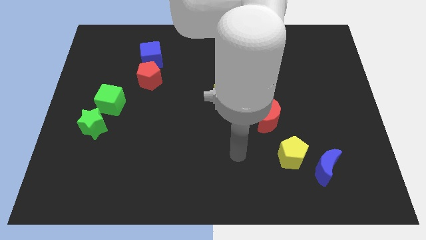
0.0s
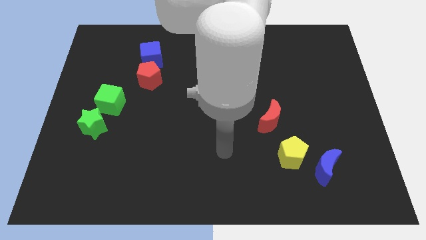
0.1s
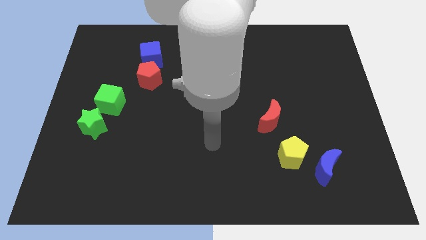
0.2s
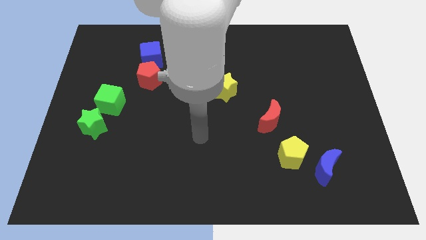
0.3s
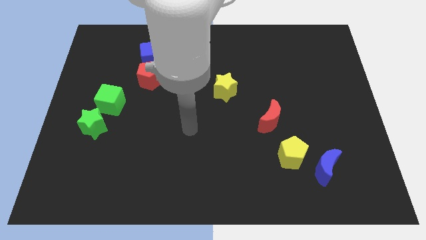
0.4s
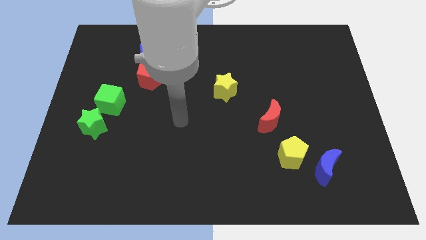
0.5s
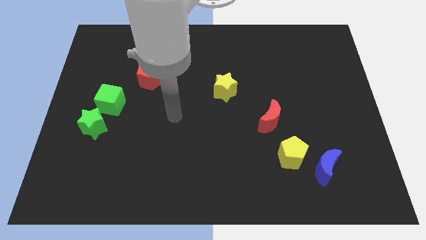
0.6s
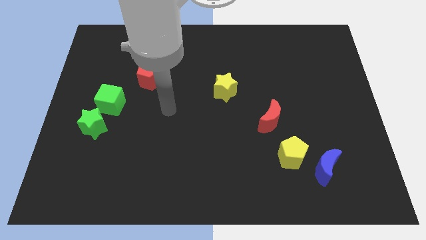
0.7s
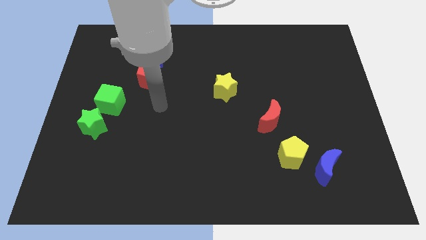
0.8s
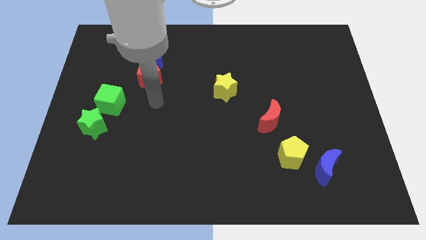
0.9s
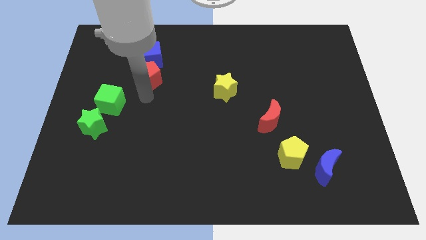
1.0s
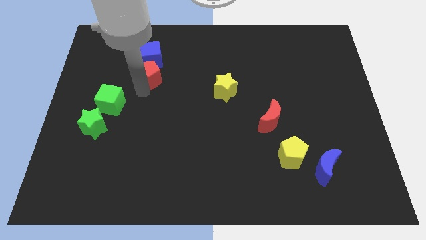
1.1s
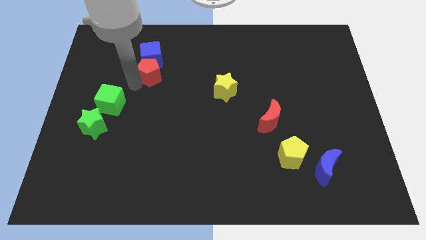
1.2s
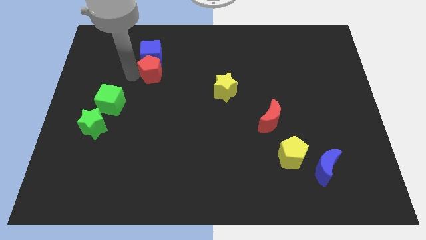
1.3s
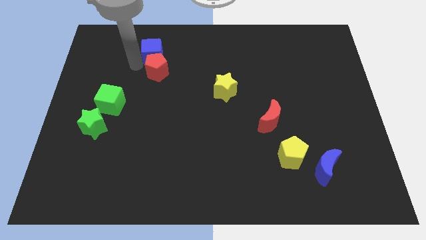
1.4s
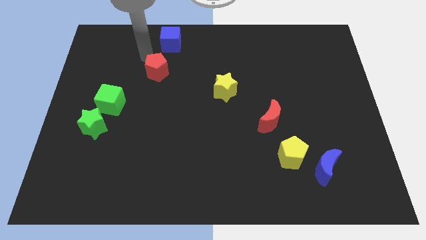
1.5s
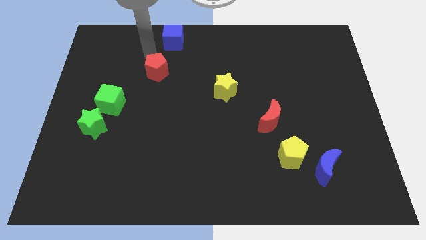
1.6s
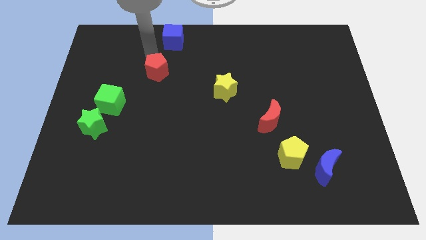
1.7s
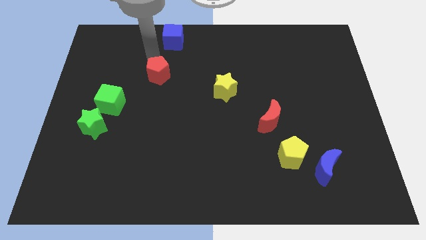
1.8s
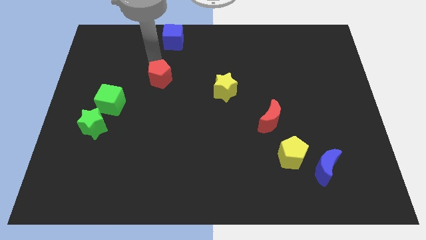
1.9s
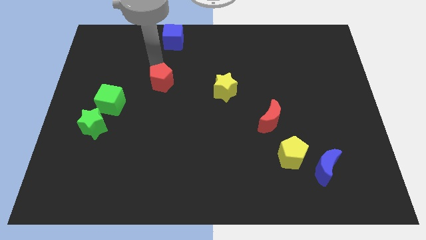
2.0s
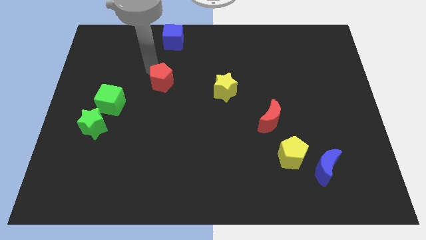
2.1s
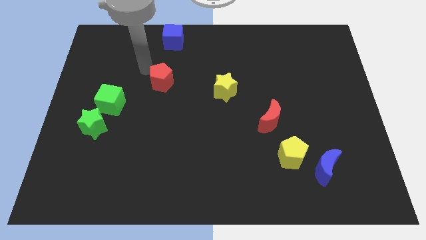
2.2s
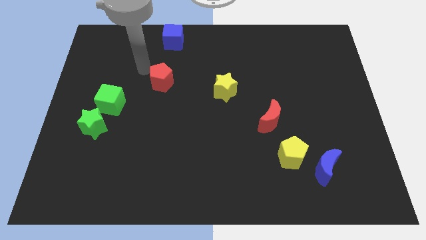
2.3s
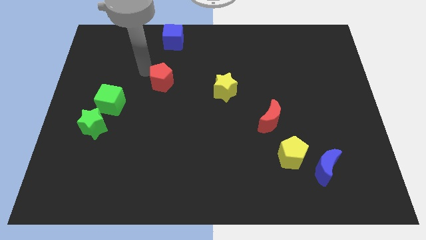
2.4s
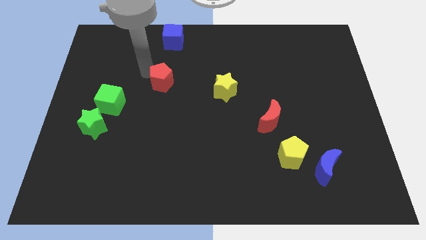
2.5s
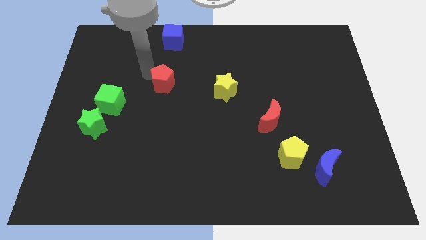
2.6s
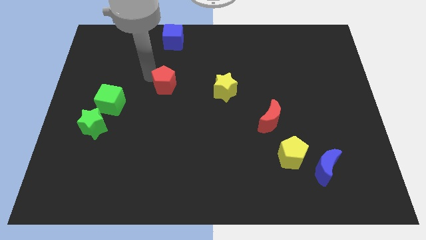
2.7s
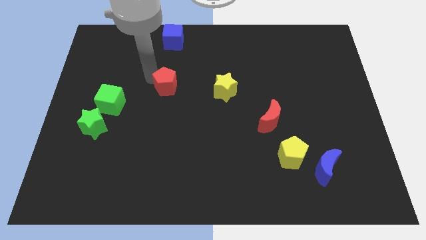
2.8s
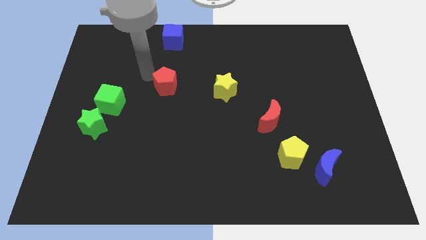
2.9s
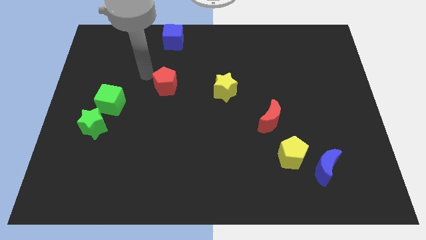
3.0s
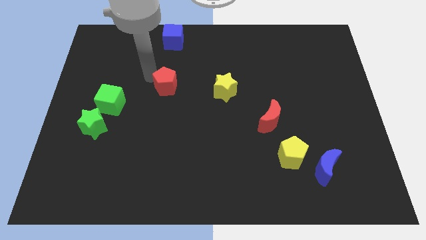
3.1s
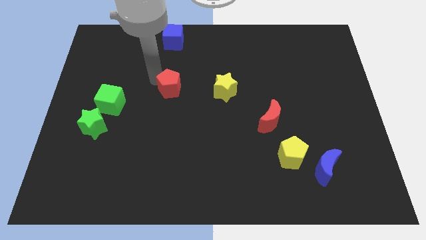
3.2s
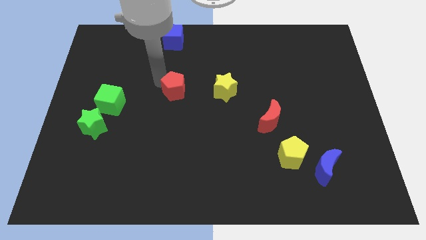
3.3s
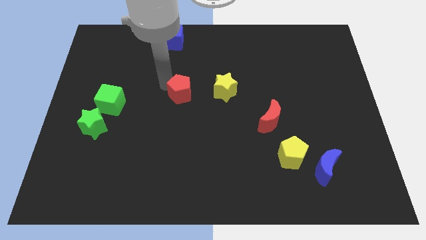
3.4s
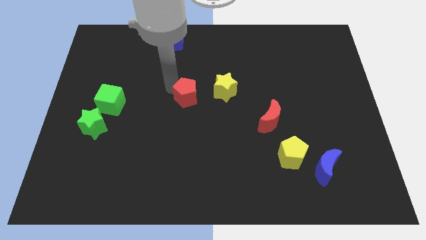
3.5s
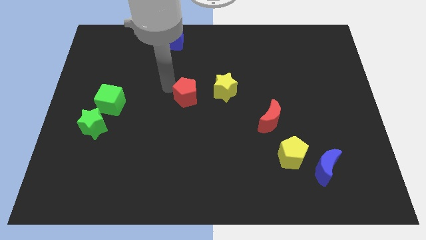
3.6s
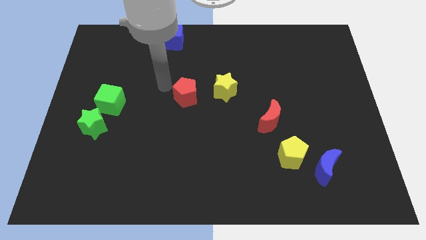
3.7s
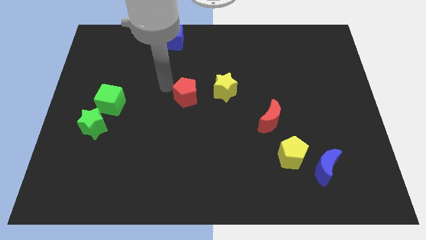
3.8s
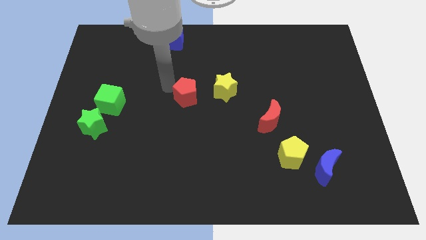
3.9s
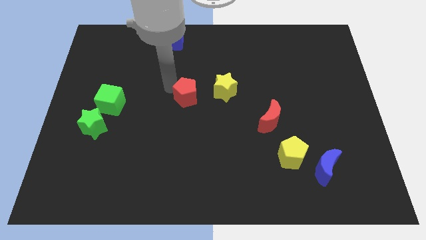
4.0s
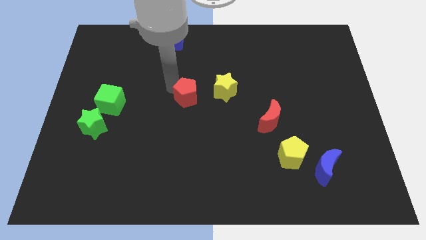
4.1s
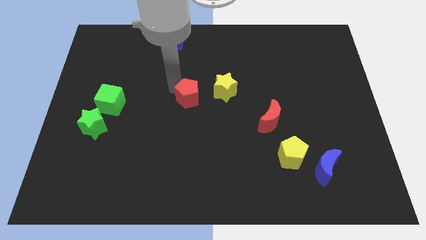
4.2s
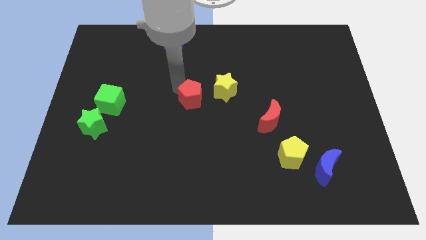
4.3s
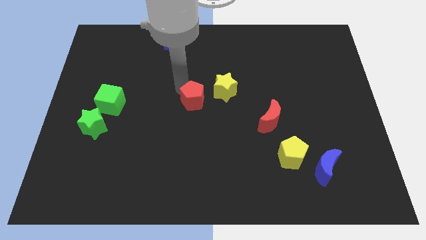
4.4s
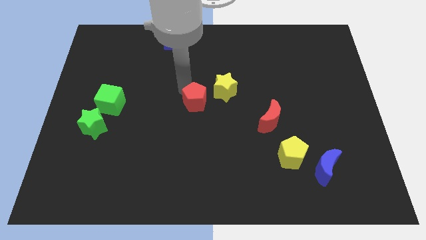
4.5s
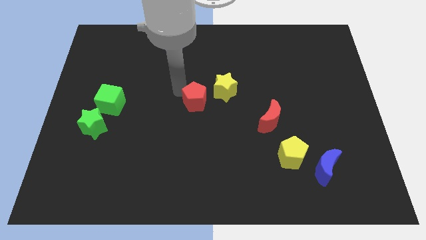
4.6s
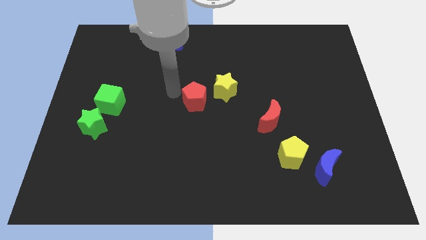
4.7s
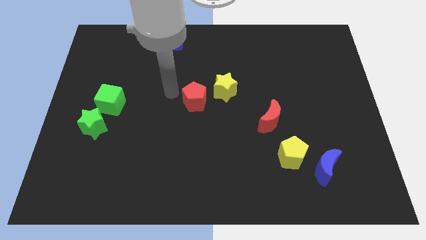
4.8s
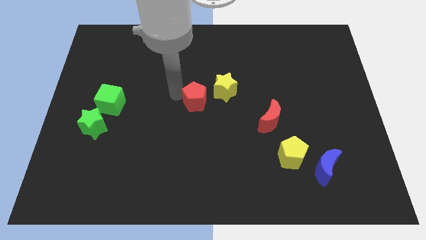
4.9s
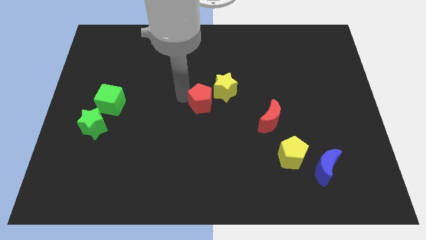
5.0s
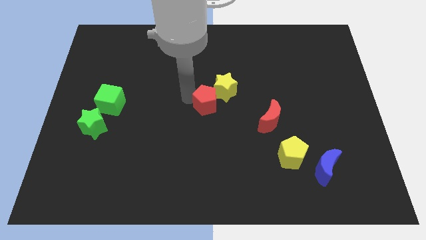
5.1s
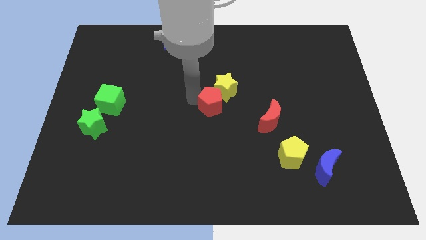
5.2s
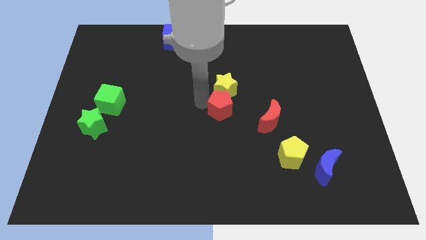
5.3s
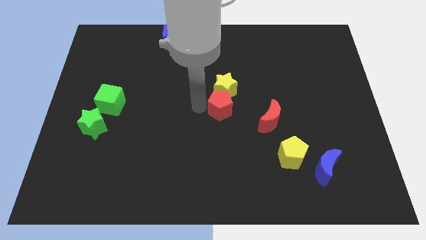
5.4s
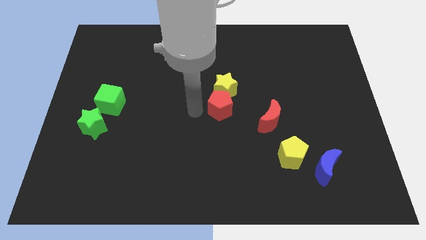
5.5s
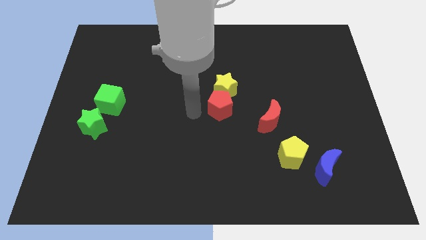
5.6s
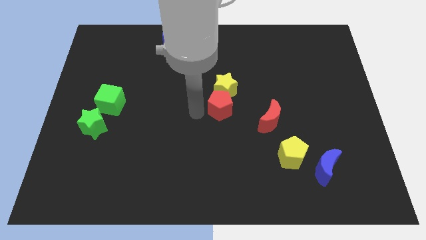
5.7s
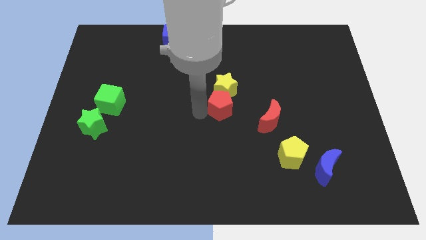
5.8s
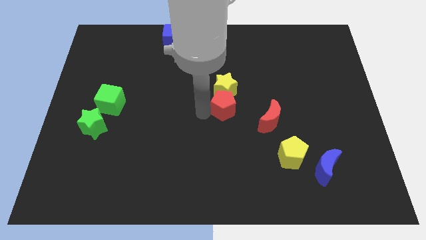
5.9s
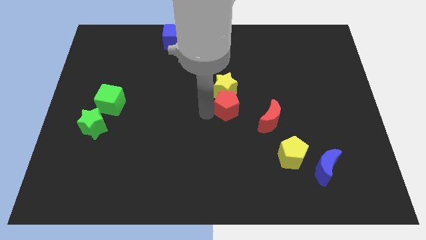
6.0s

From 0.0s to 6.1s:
put the red pentagon to the top left side of the red moon
